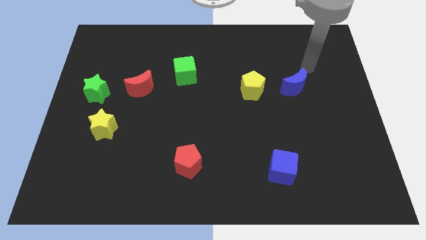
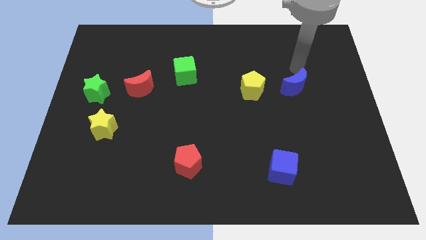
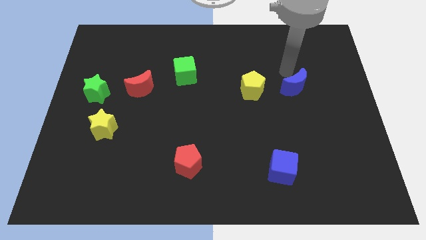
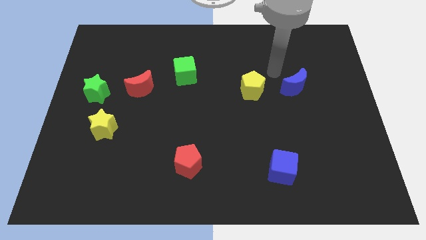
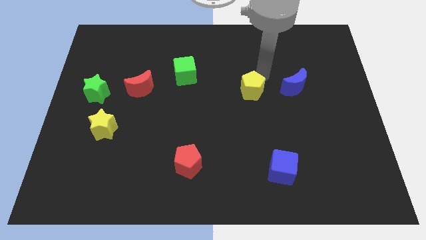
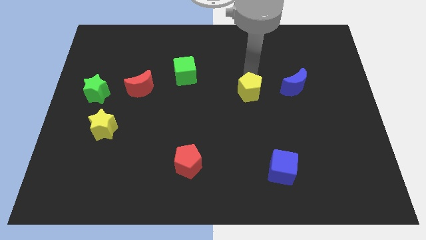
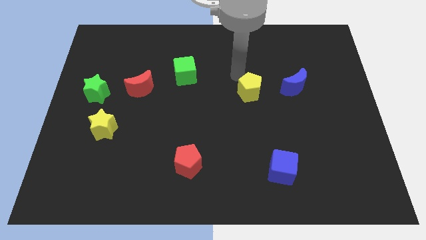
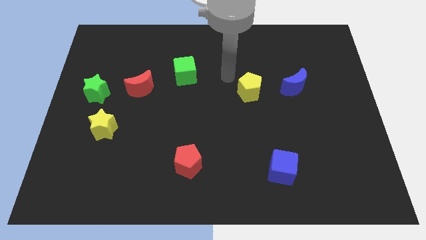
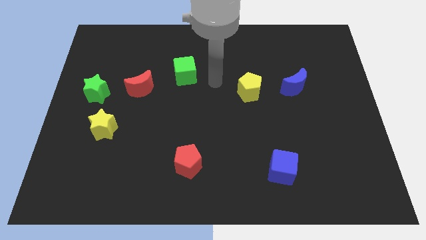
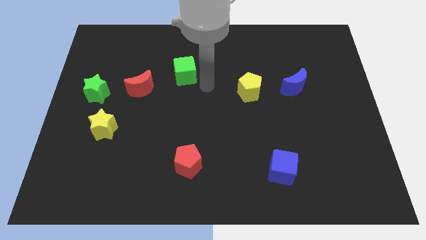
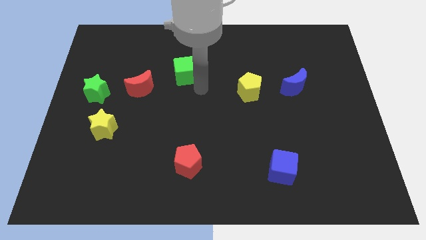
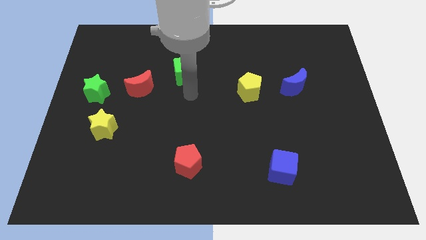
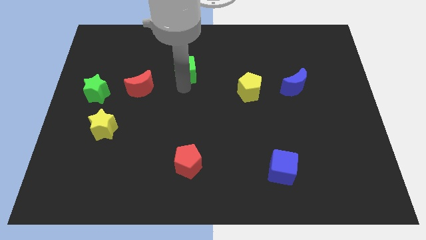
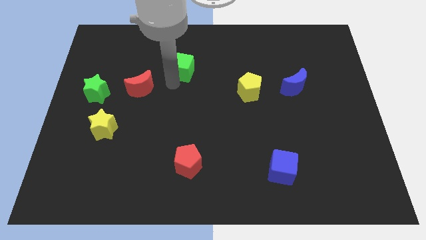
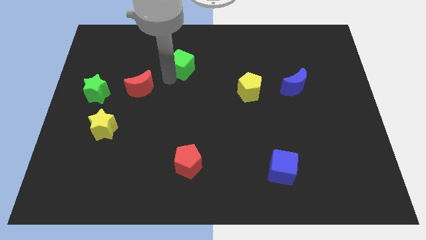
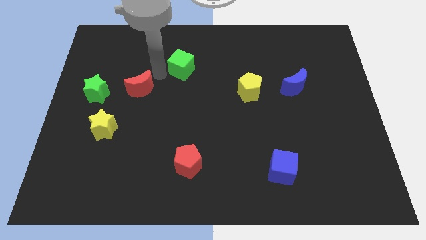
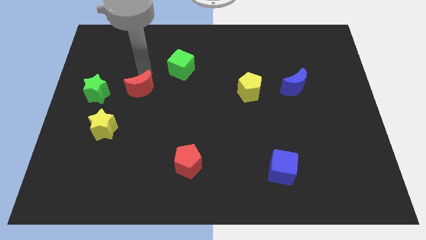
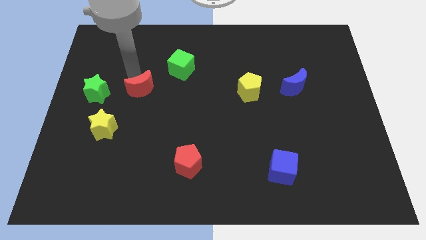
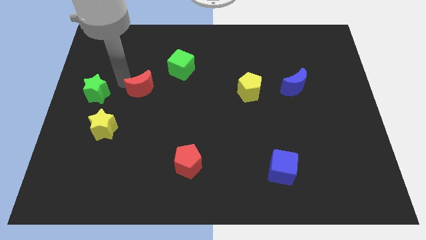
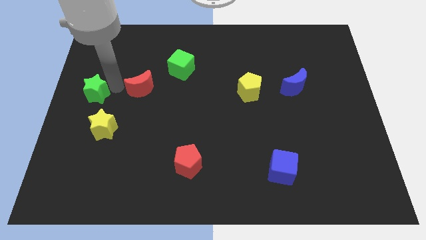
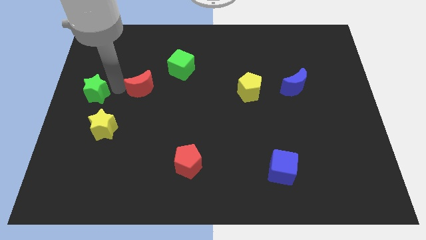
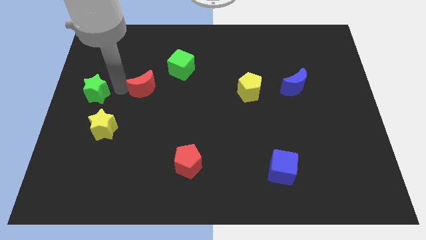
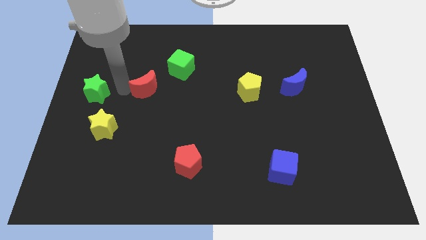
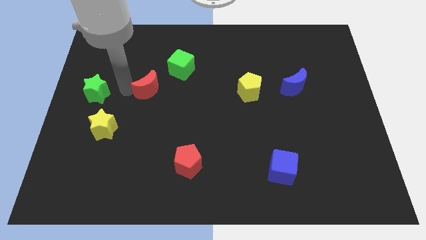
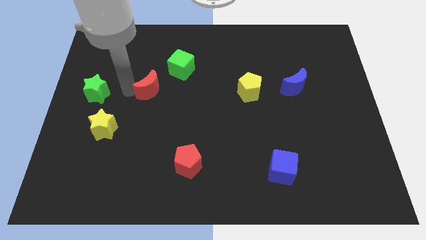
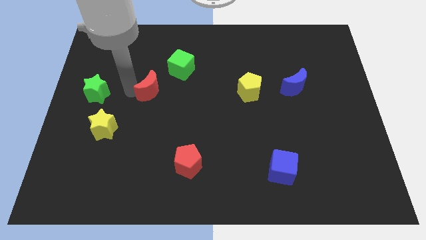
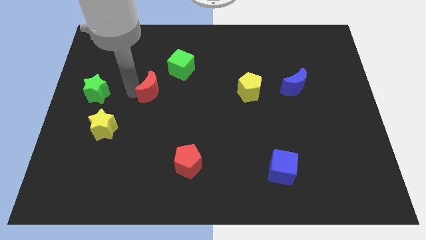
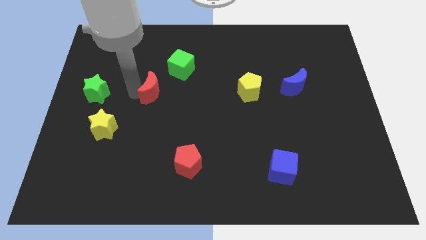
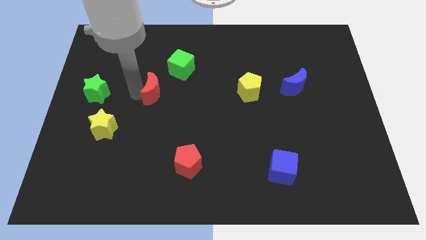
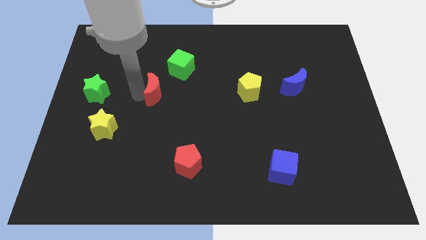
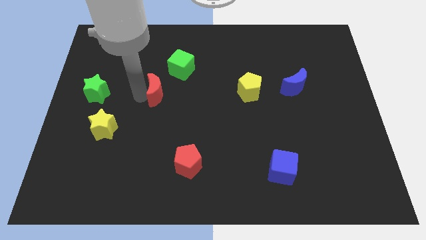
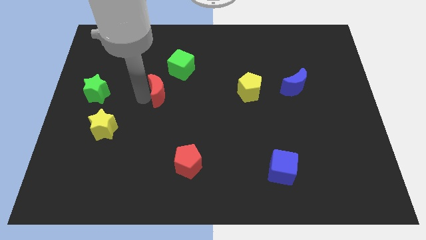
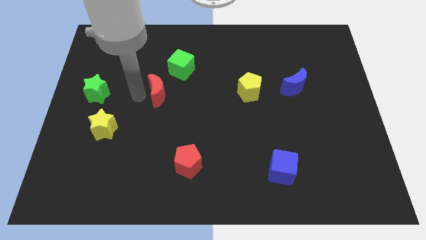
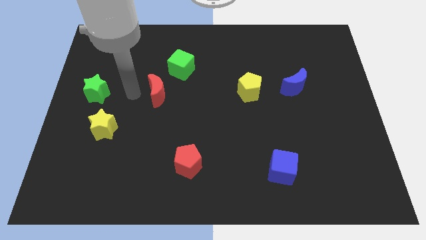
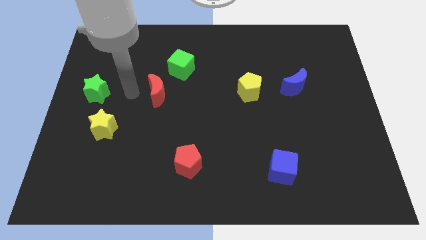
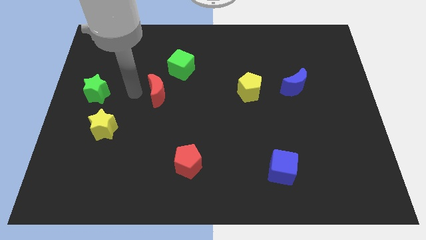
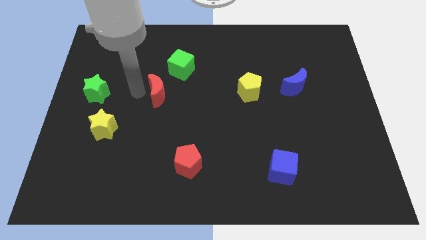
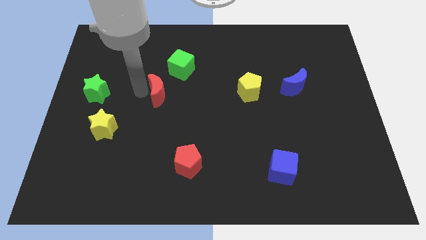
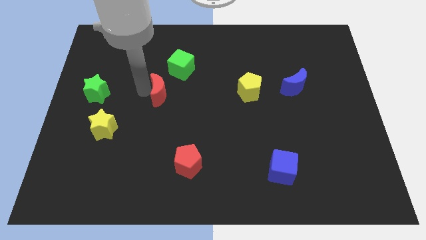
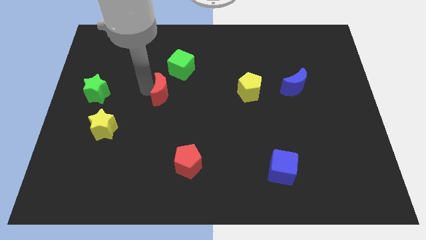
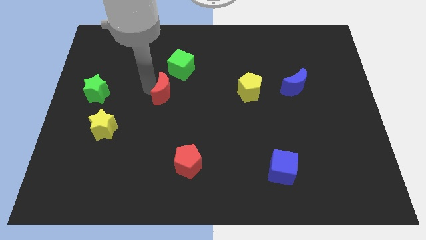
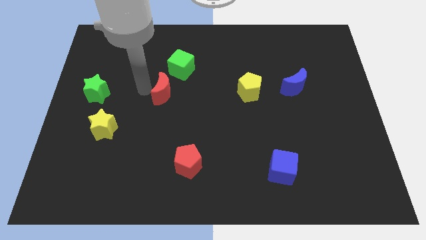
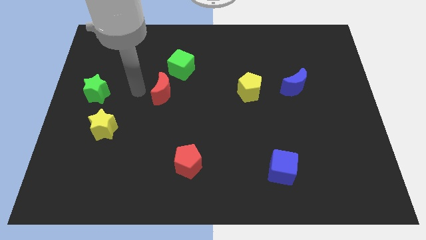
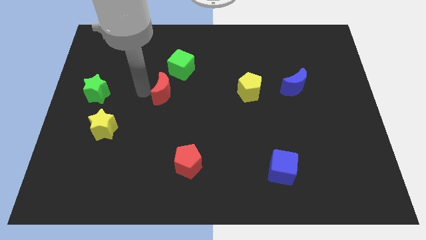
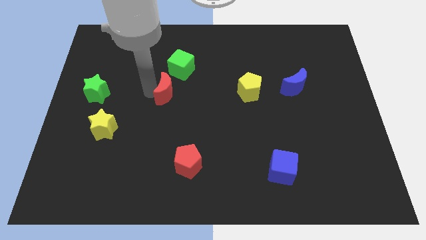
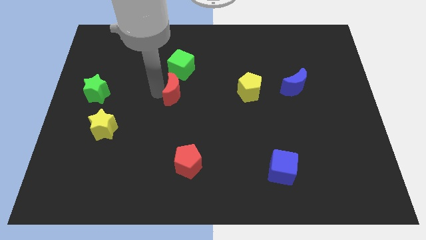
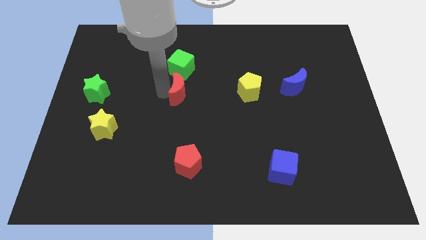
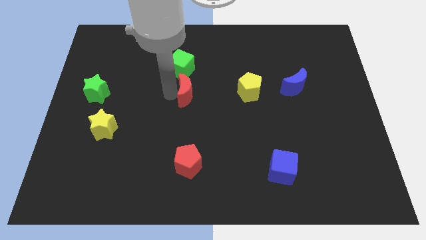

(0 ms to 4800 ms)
push the red moon to the bottom right side of the green cube

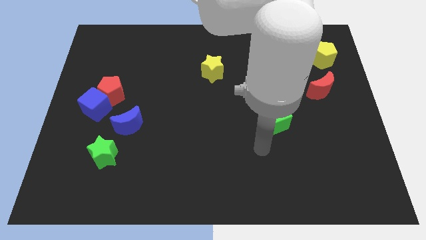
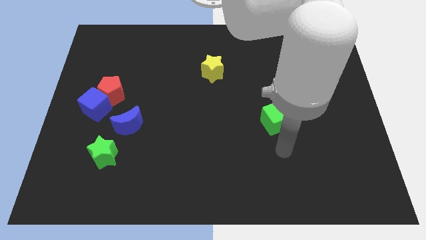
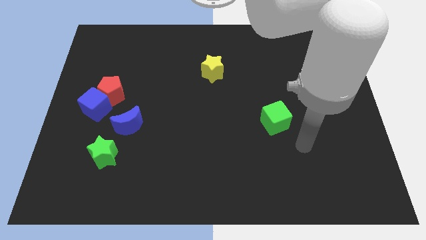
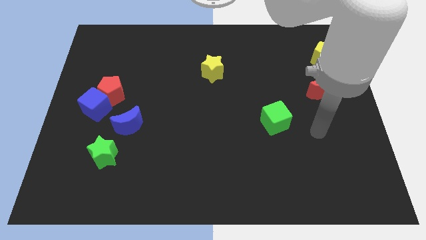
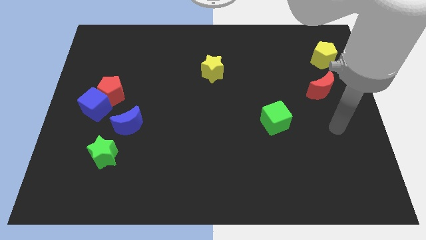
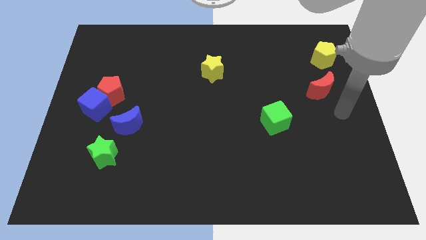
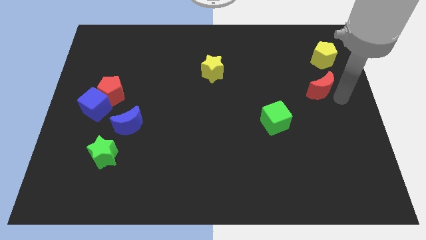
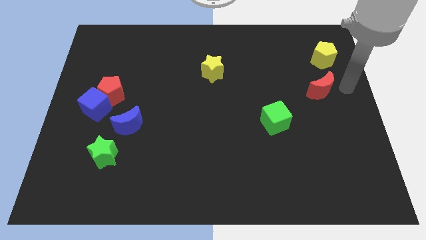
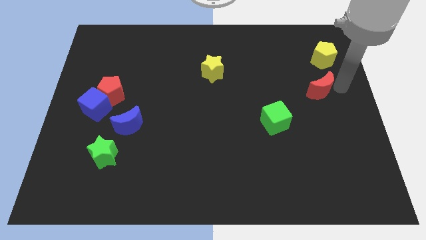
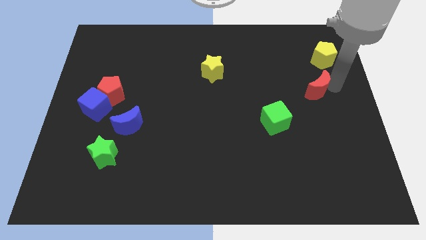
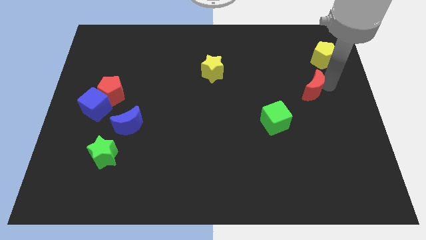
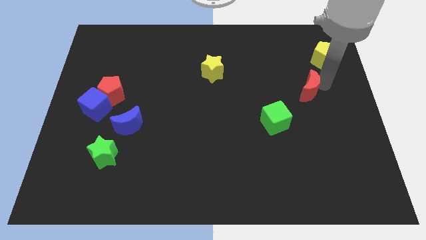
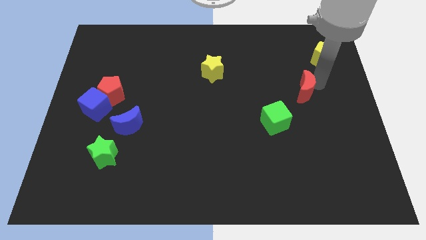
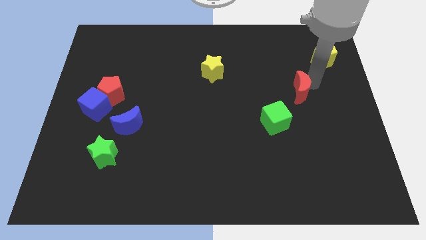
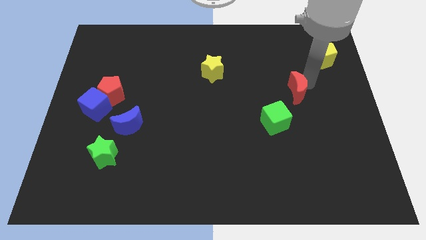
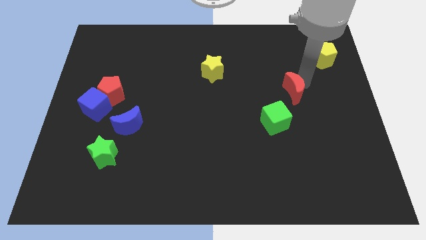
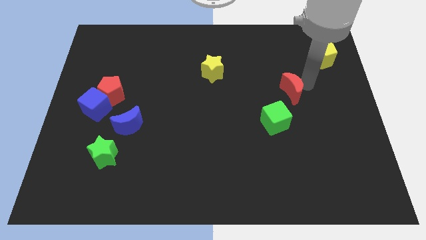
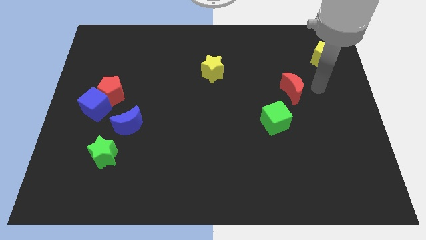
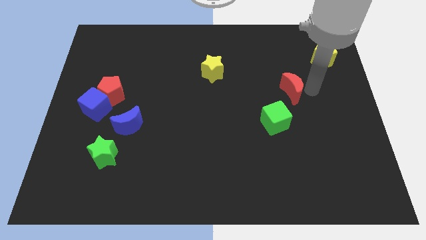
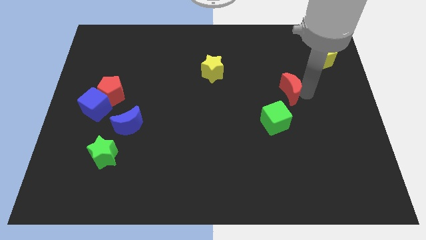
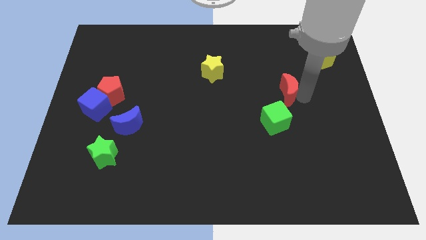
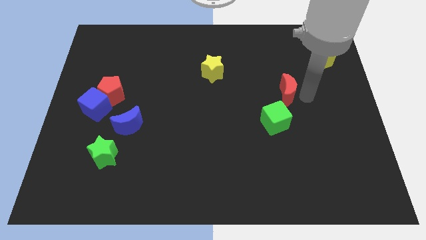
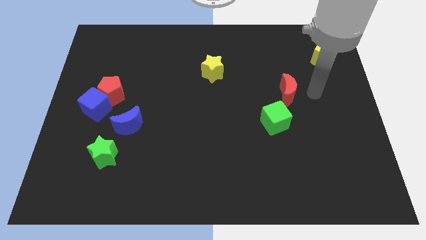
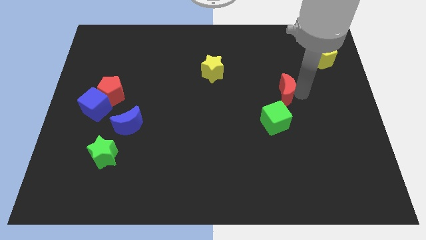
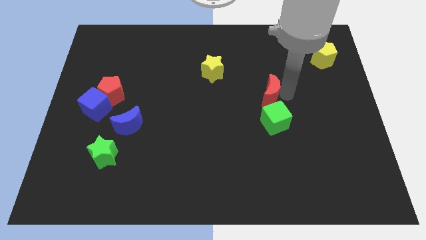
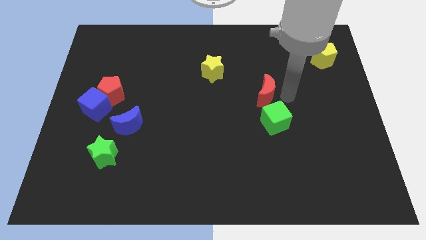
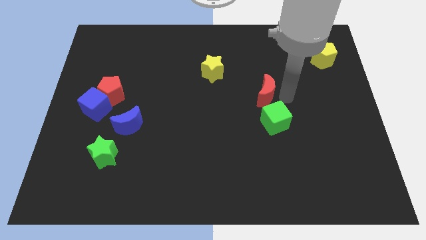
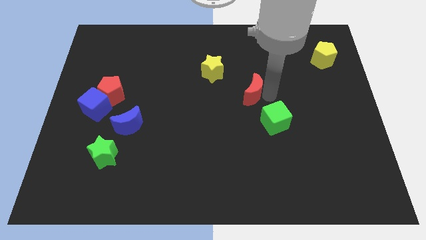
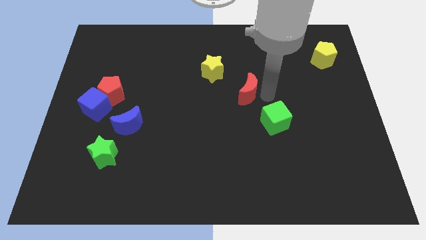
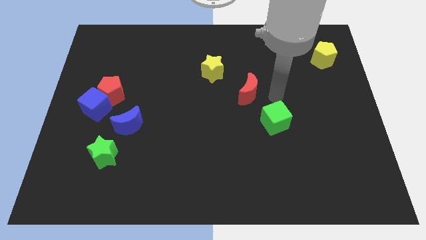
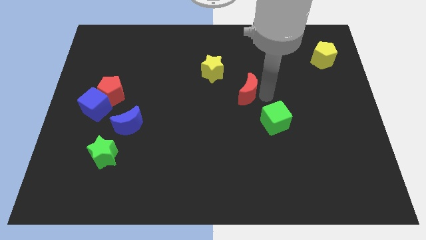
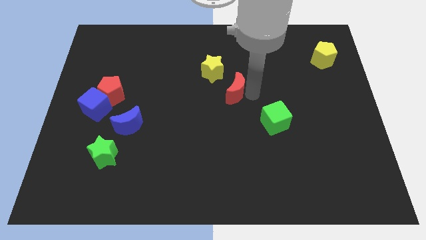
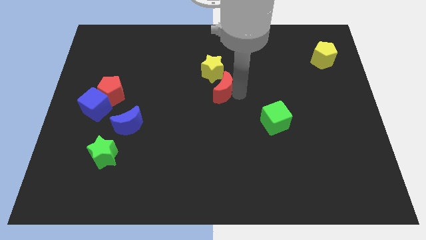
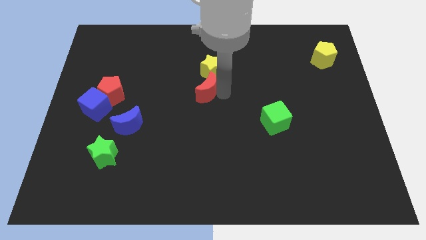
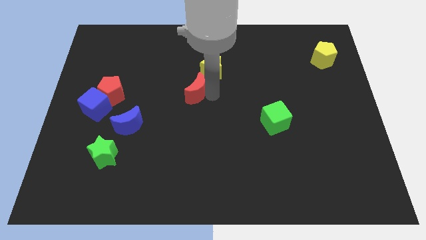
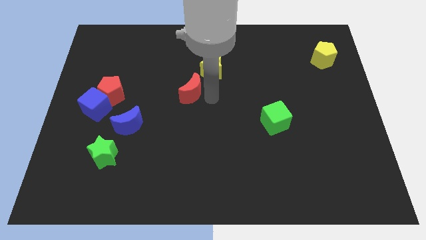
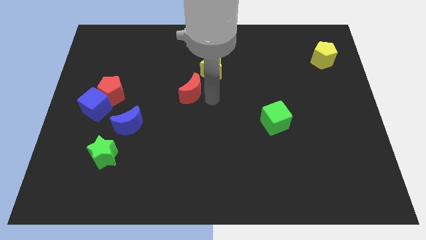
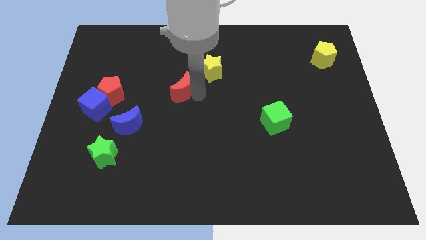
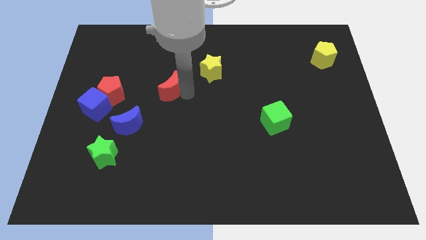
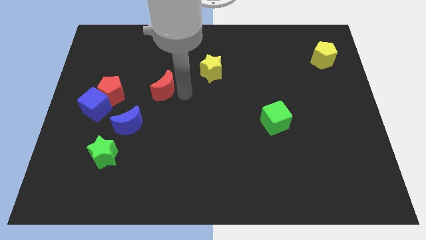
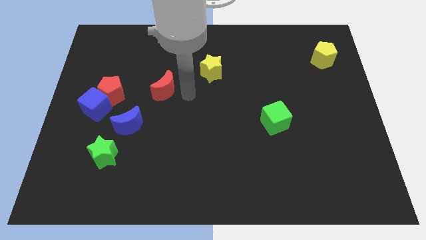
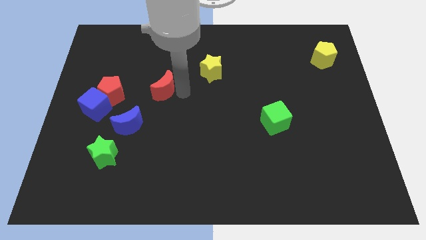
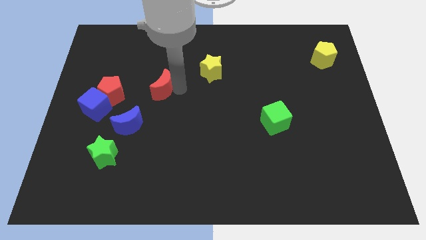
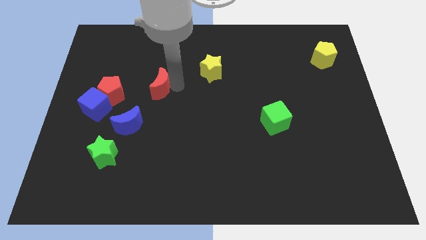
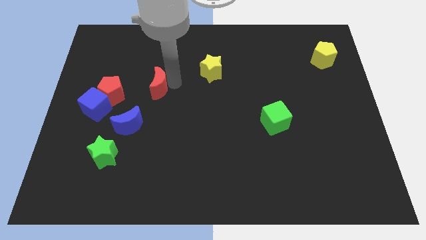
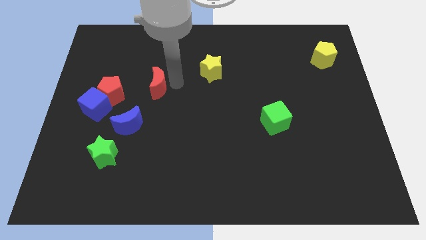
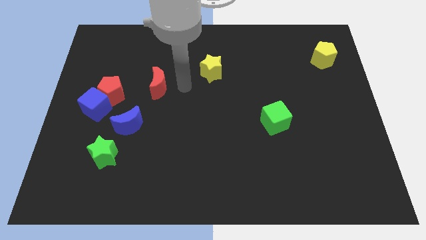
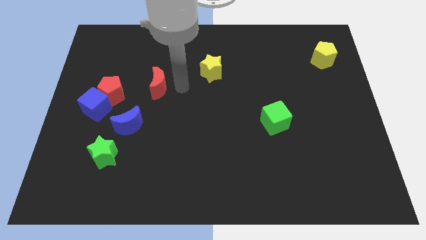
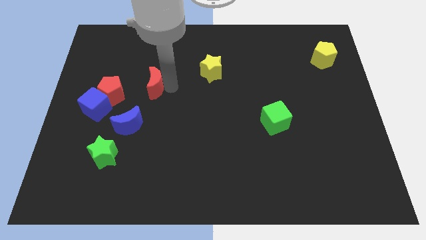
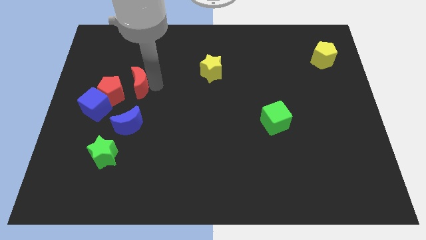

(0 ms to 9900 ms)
push the red moon to the top right of the blue cube
